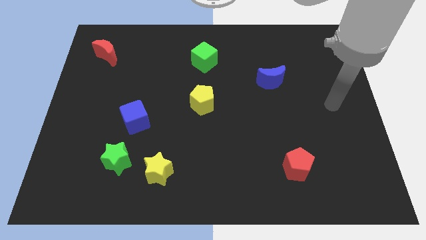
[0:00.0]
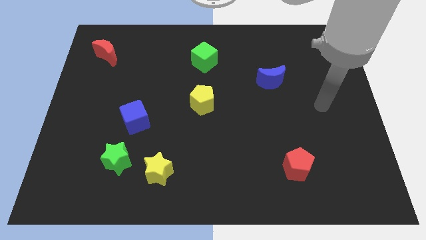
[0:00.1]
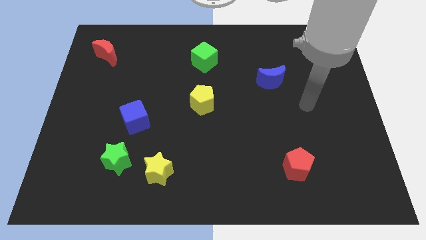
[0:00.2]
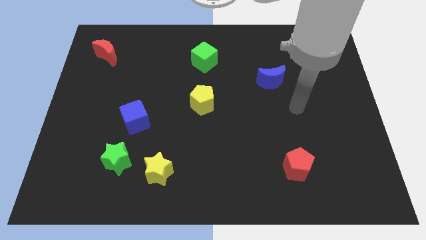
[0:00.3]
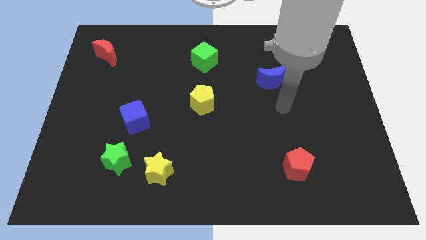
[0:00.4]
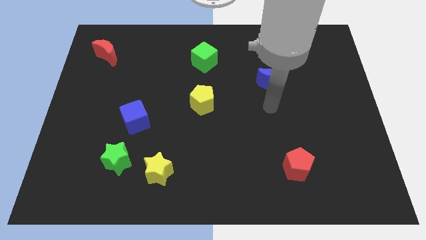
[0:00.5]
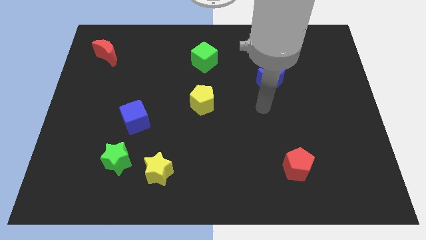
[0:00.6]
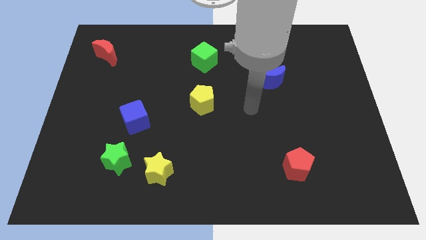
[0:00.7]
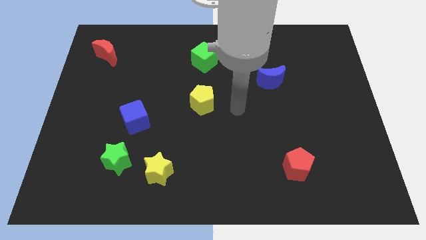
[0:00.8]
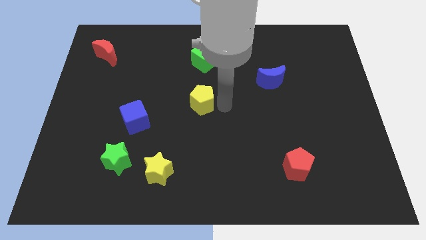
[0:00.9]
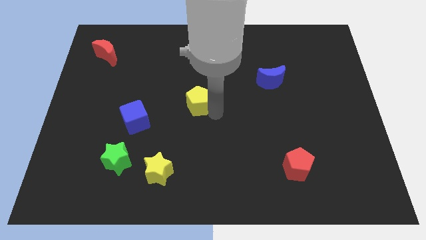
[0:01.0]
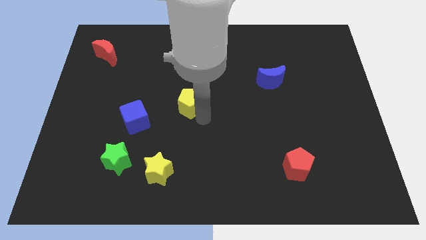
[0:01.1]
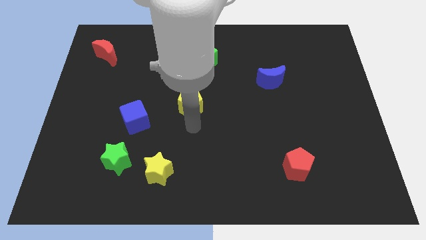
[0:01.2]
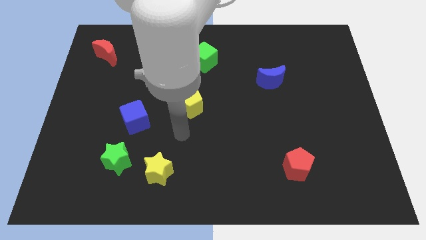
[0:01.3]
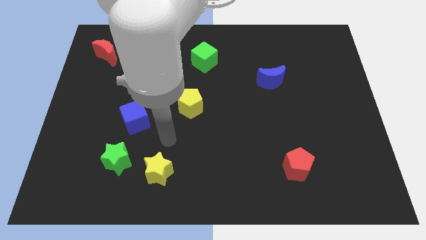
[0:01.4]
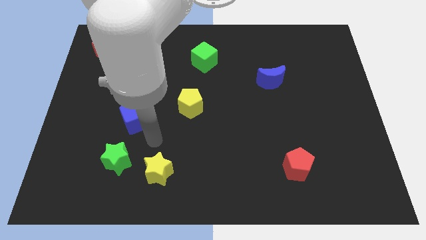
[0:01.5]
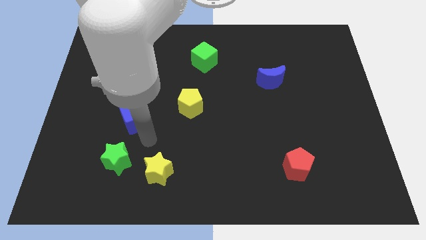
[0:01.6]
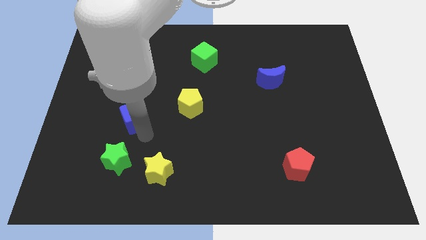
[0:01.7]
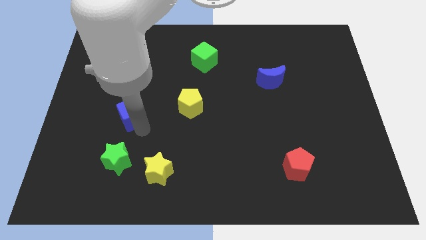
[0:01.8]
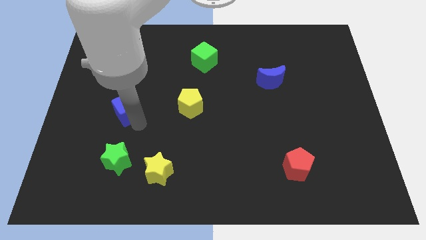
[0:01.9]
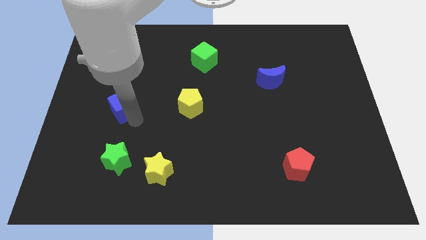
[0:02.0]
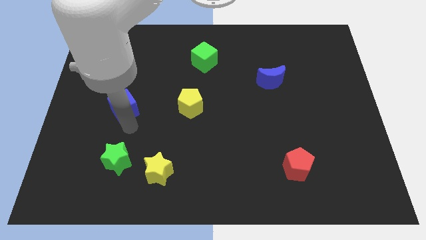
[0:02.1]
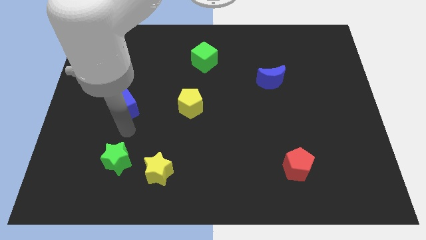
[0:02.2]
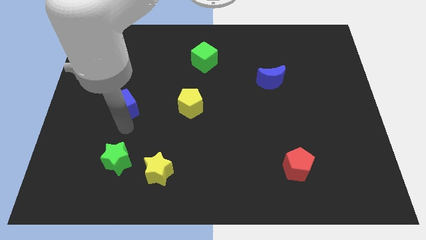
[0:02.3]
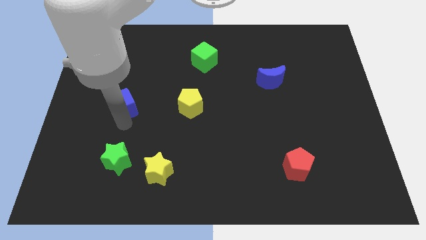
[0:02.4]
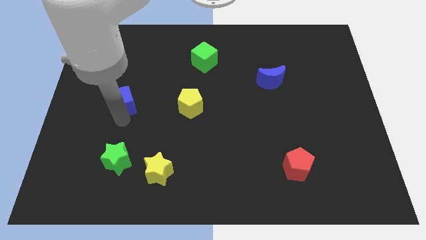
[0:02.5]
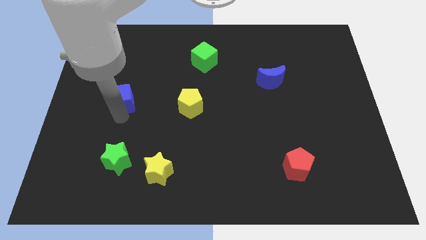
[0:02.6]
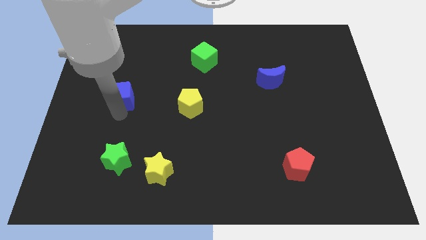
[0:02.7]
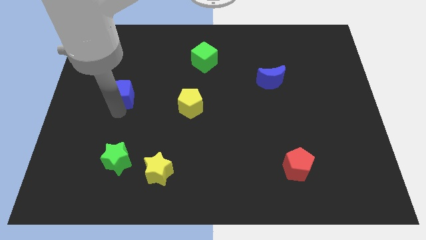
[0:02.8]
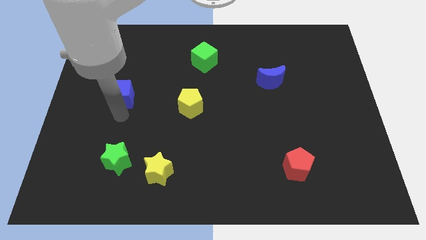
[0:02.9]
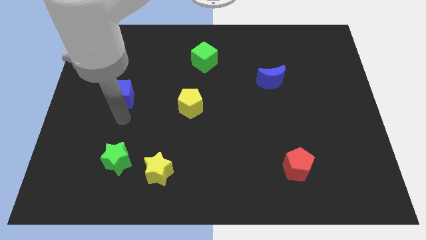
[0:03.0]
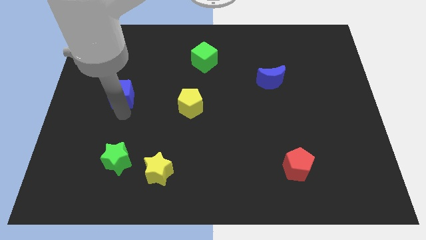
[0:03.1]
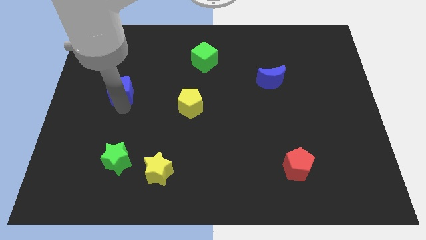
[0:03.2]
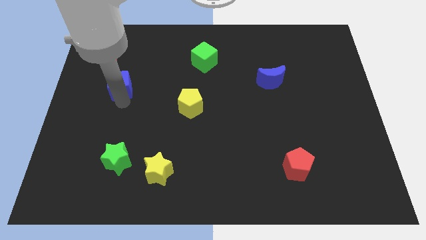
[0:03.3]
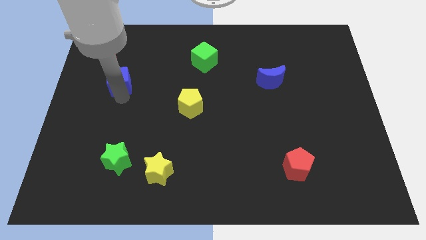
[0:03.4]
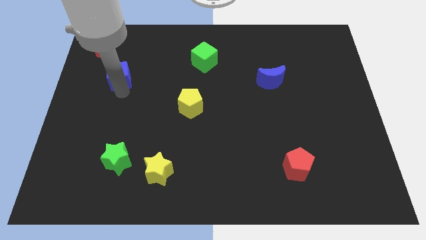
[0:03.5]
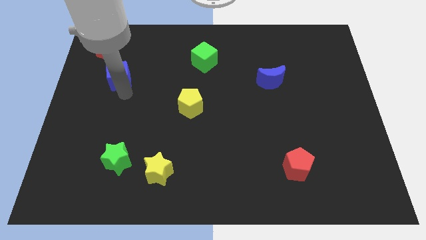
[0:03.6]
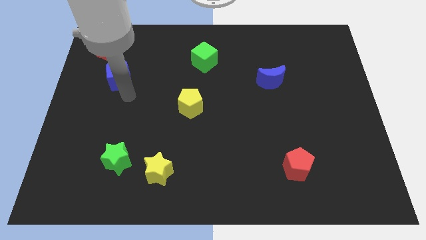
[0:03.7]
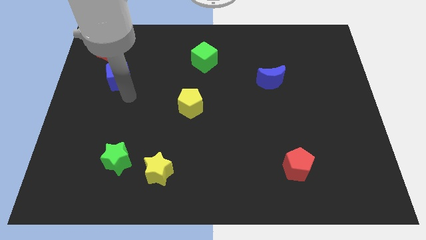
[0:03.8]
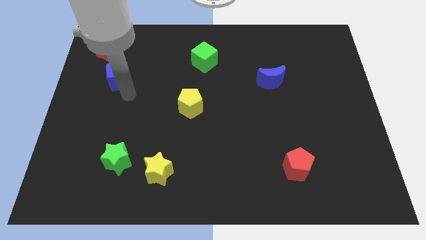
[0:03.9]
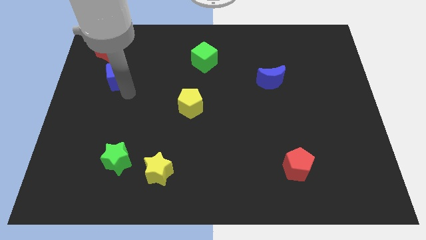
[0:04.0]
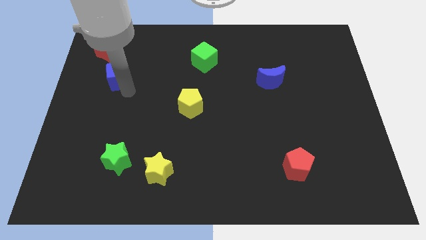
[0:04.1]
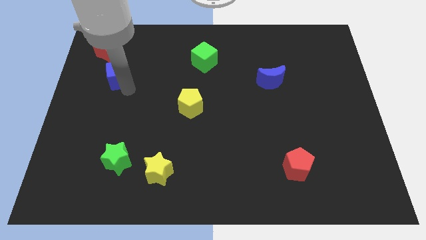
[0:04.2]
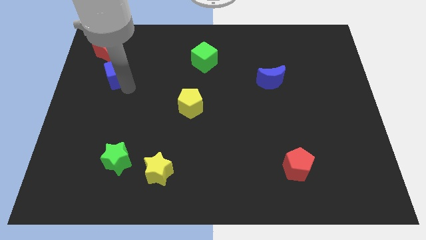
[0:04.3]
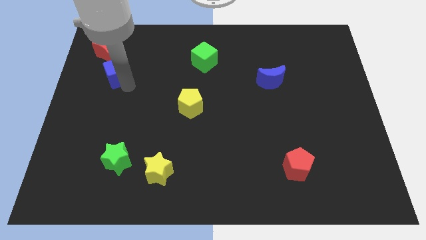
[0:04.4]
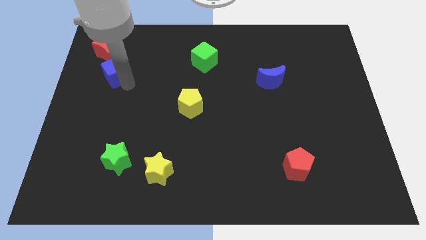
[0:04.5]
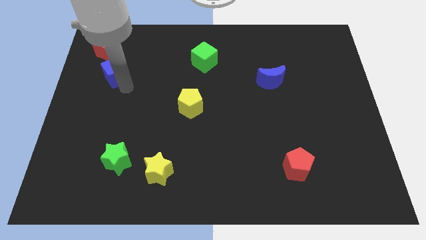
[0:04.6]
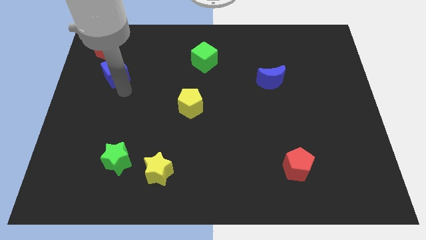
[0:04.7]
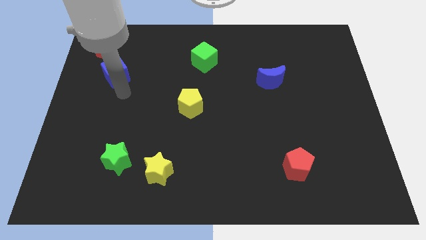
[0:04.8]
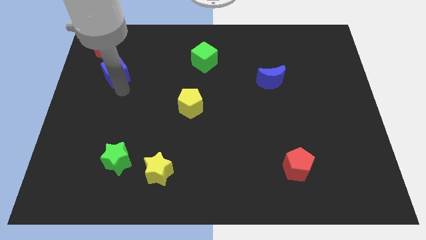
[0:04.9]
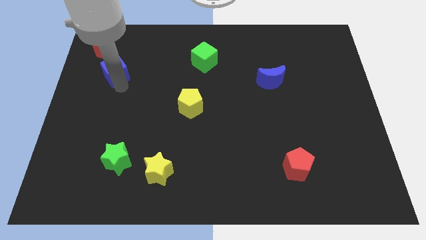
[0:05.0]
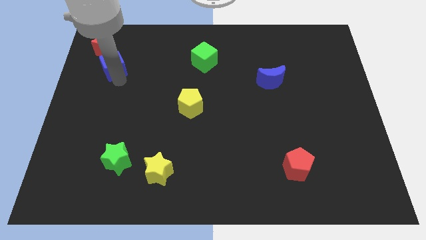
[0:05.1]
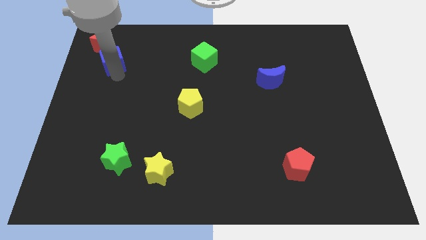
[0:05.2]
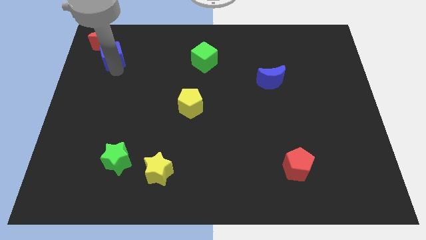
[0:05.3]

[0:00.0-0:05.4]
put the blue cube close to the red moon

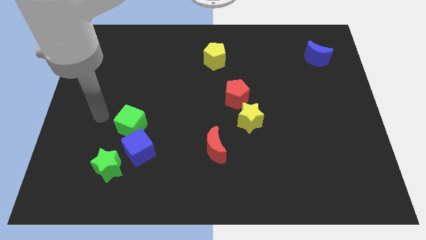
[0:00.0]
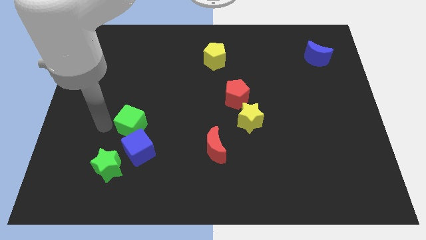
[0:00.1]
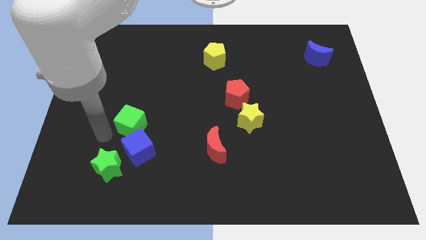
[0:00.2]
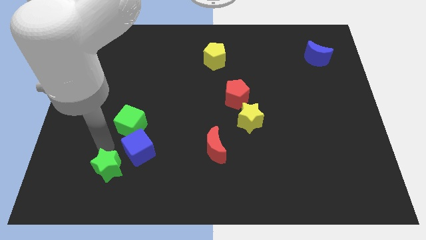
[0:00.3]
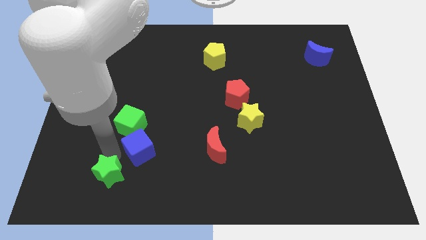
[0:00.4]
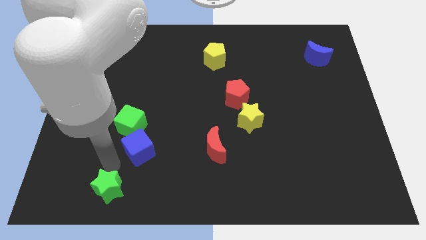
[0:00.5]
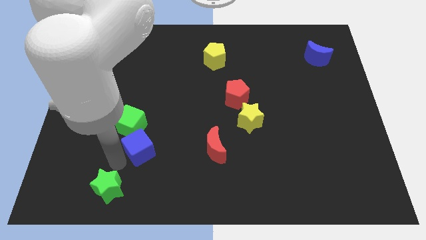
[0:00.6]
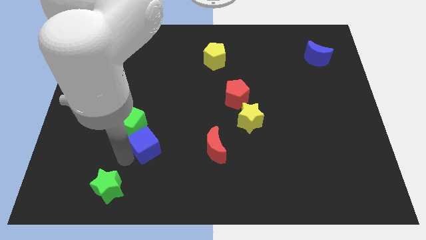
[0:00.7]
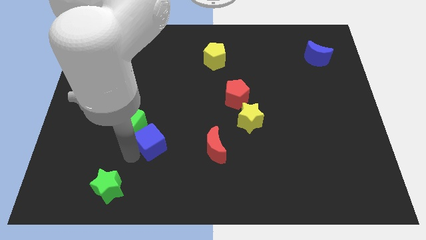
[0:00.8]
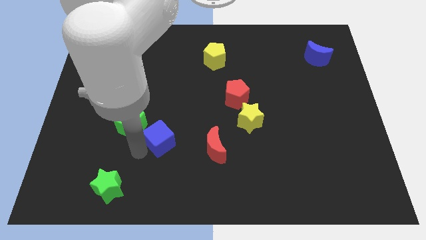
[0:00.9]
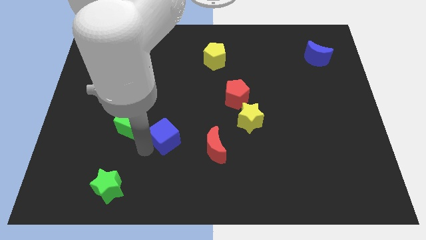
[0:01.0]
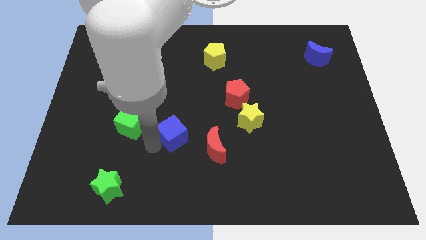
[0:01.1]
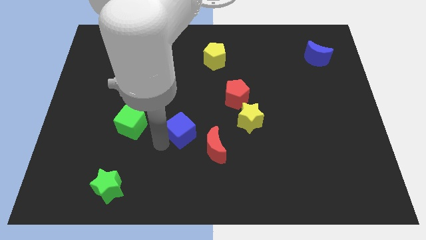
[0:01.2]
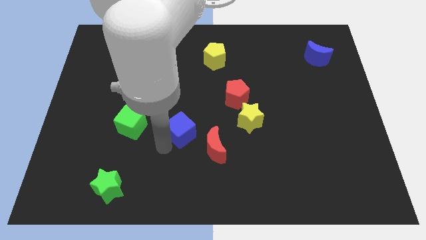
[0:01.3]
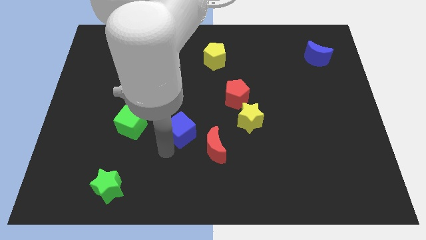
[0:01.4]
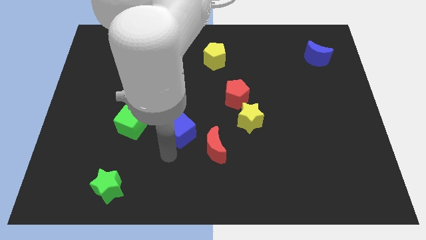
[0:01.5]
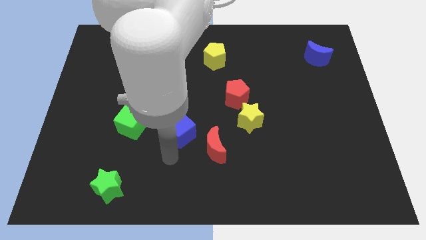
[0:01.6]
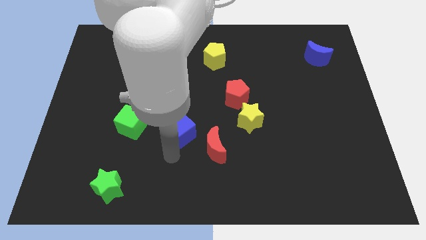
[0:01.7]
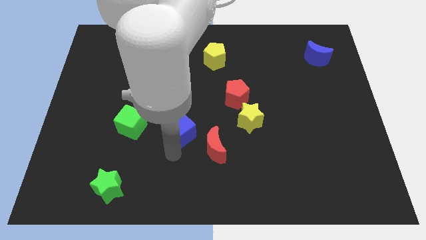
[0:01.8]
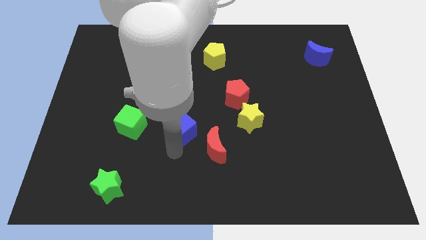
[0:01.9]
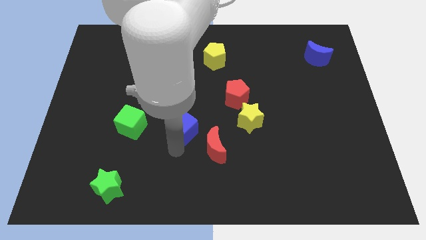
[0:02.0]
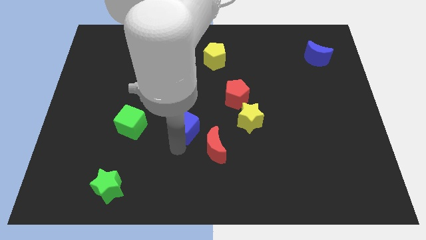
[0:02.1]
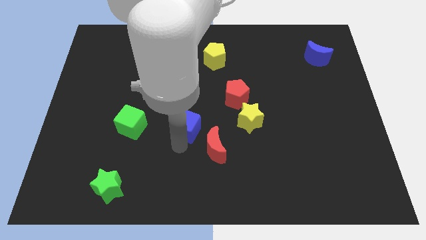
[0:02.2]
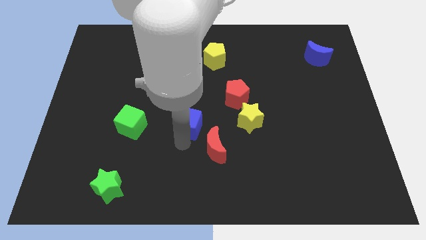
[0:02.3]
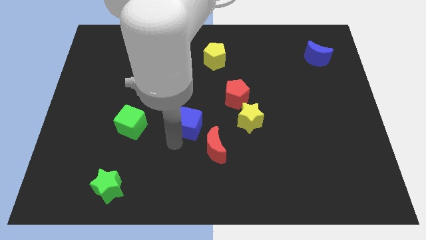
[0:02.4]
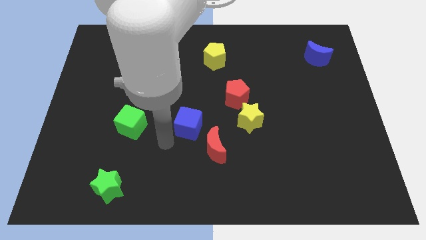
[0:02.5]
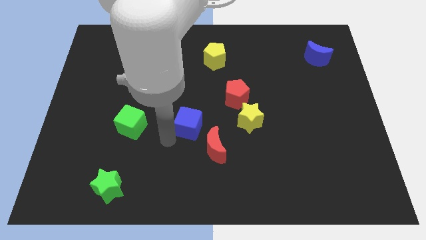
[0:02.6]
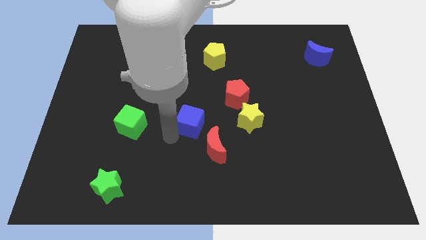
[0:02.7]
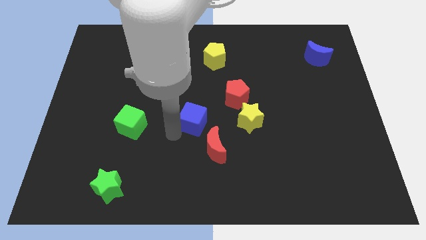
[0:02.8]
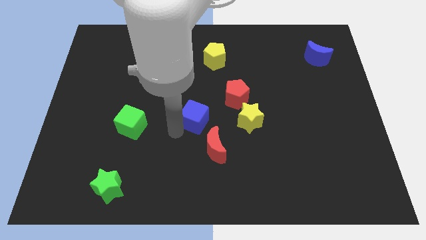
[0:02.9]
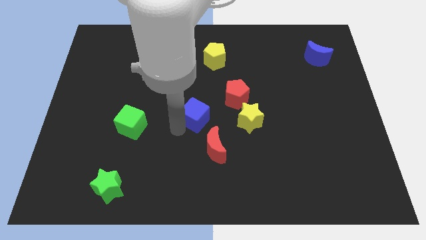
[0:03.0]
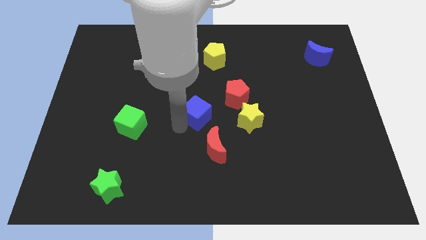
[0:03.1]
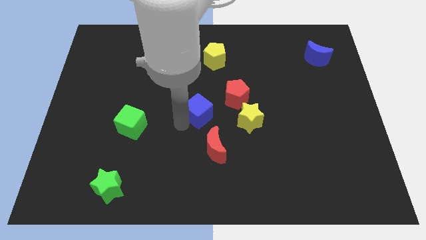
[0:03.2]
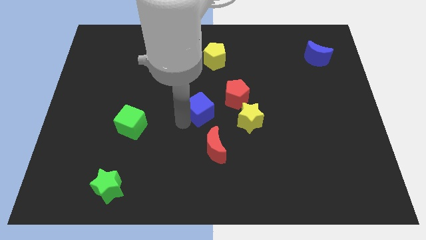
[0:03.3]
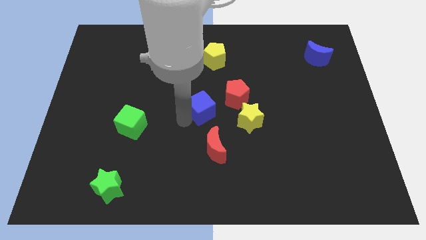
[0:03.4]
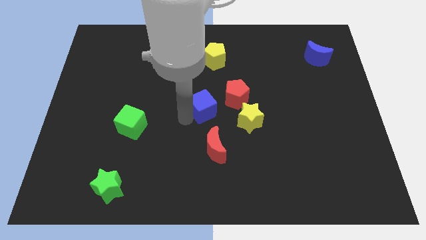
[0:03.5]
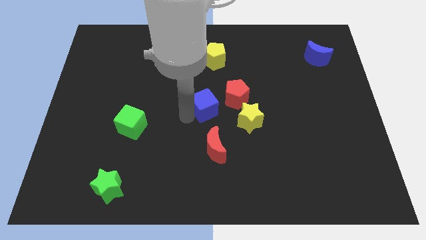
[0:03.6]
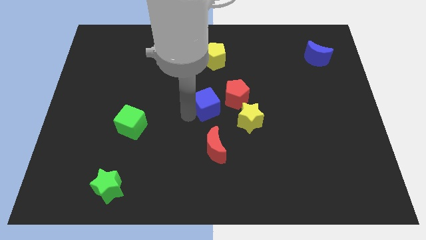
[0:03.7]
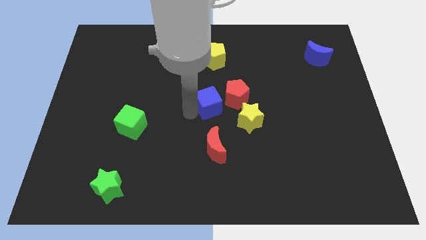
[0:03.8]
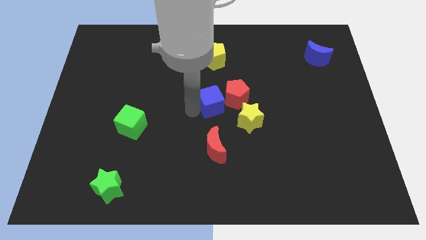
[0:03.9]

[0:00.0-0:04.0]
put the blue cube to the red pentagon
